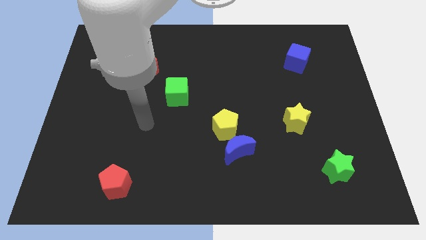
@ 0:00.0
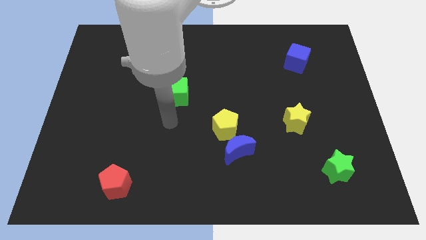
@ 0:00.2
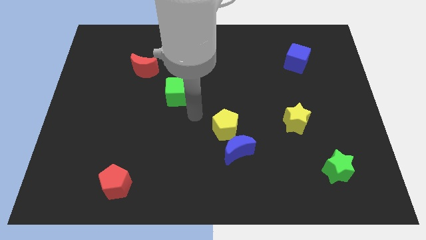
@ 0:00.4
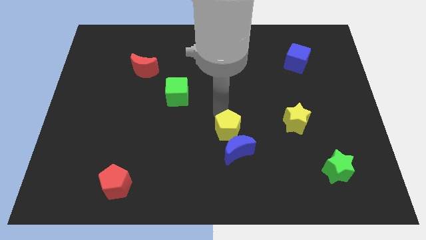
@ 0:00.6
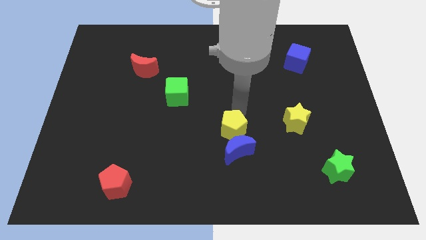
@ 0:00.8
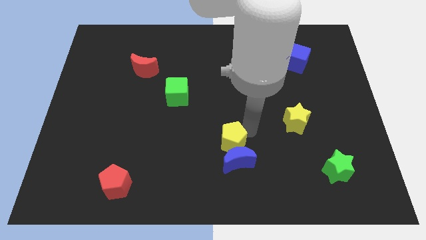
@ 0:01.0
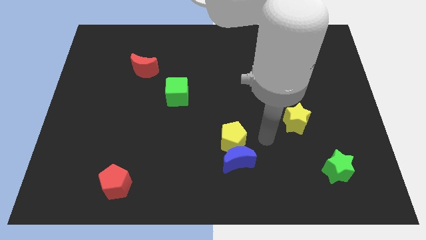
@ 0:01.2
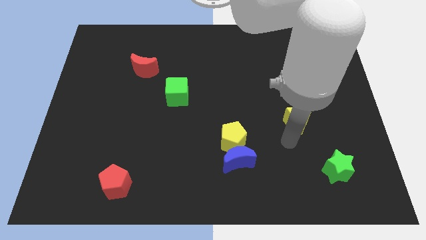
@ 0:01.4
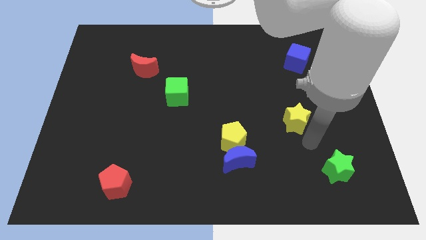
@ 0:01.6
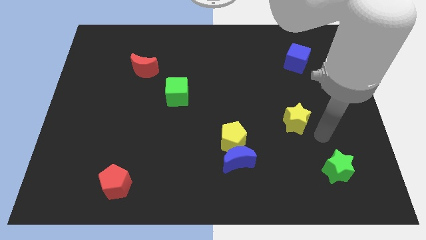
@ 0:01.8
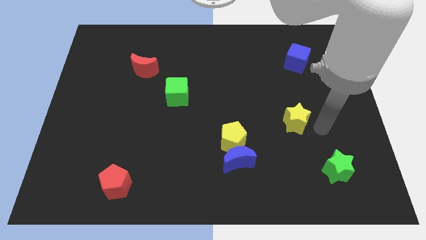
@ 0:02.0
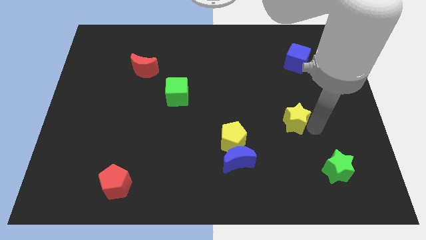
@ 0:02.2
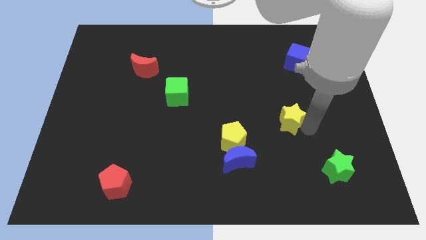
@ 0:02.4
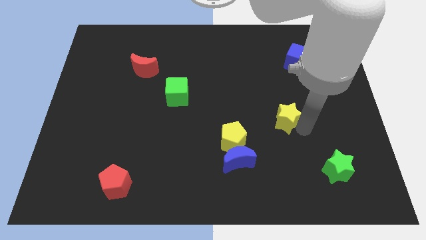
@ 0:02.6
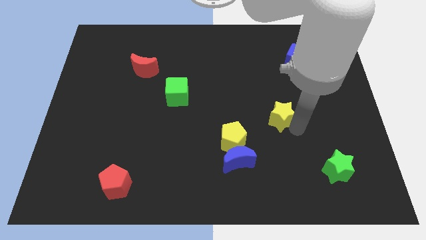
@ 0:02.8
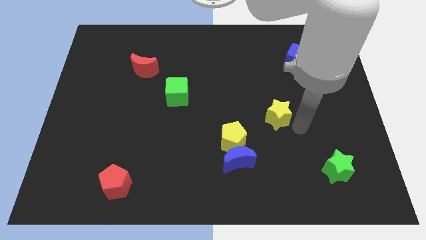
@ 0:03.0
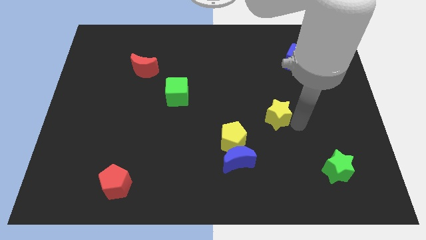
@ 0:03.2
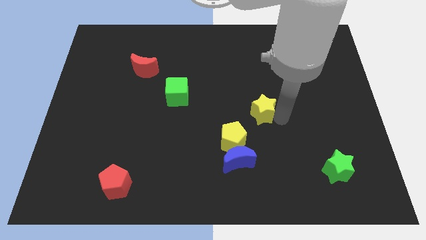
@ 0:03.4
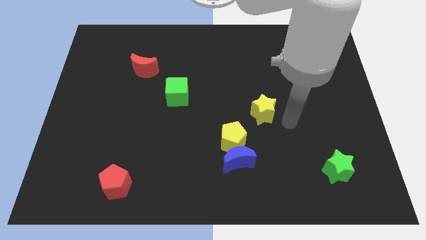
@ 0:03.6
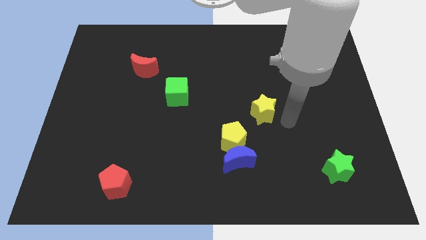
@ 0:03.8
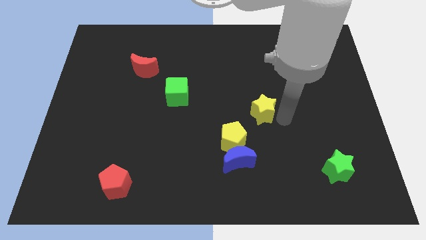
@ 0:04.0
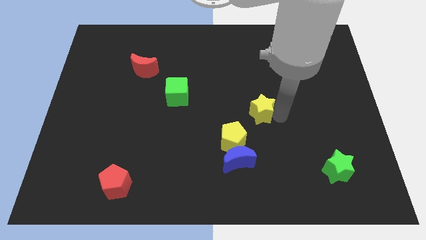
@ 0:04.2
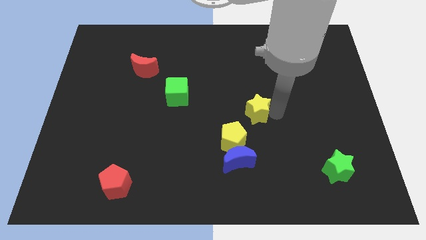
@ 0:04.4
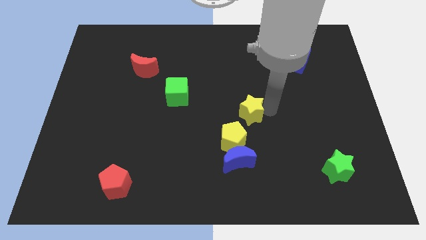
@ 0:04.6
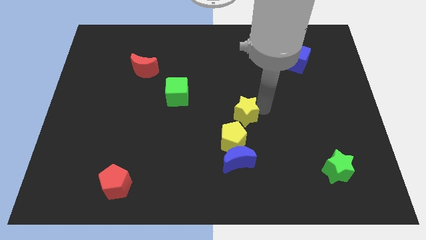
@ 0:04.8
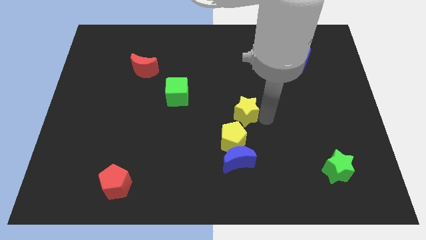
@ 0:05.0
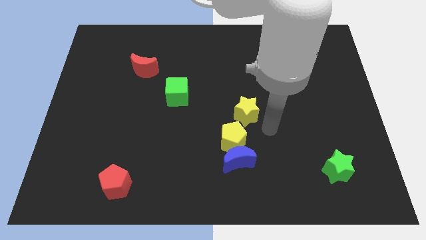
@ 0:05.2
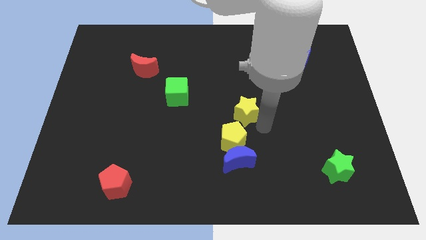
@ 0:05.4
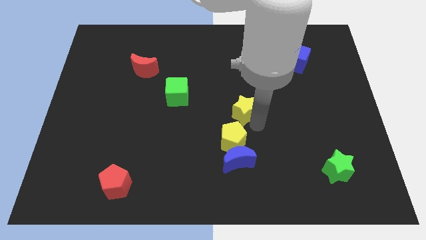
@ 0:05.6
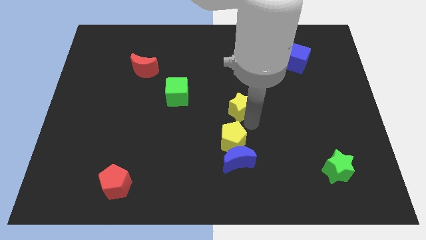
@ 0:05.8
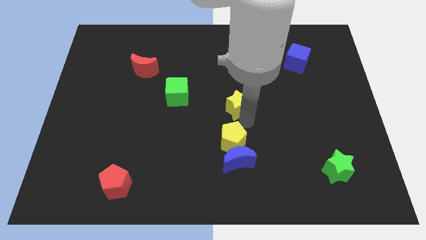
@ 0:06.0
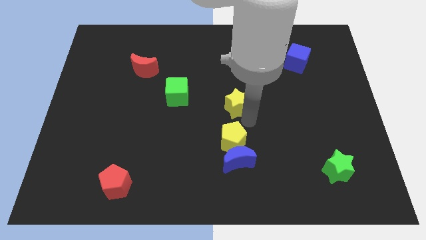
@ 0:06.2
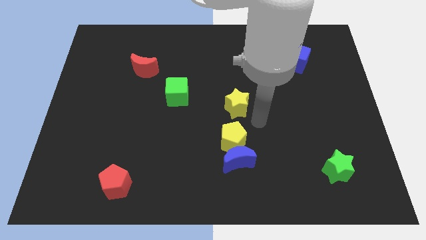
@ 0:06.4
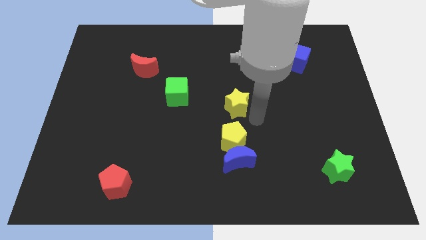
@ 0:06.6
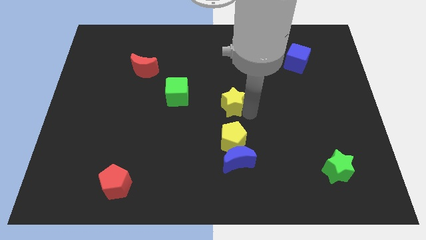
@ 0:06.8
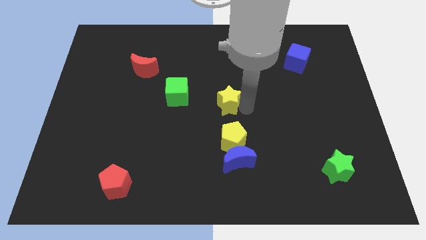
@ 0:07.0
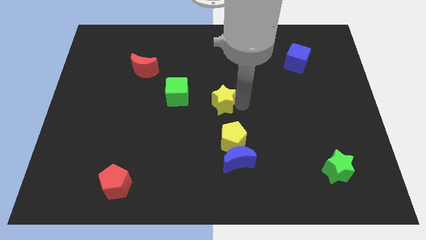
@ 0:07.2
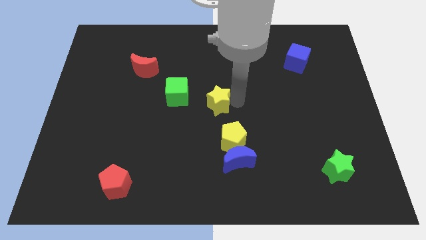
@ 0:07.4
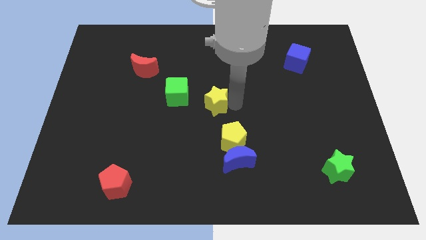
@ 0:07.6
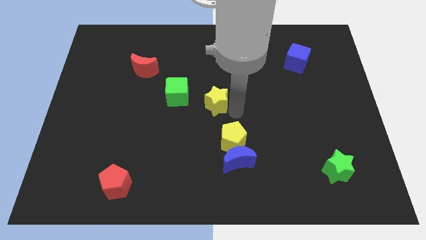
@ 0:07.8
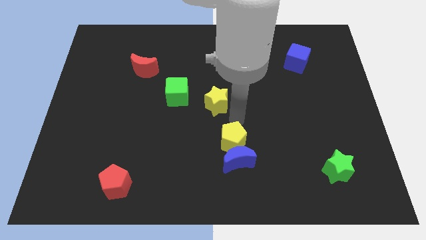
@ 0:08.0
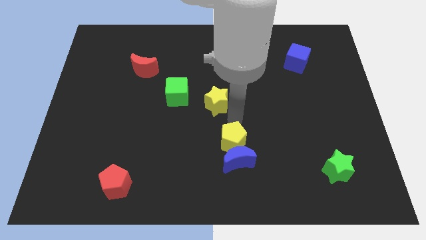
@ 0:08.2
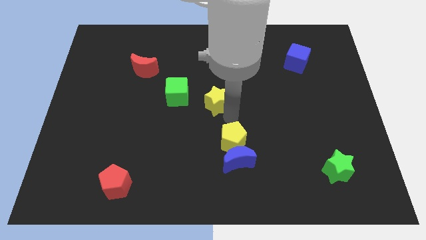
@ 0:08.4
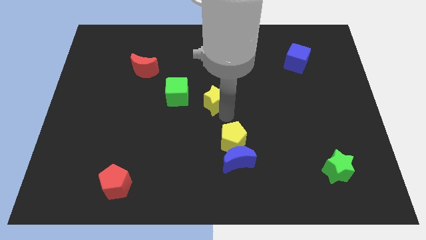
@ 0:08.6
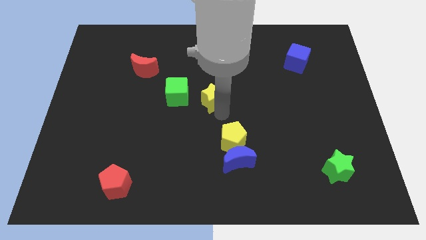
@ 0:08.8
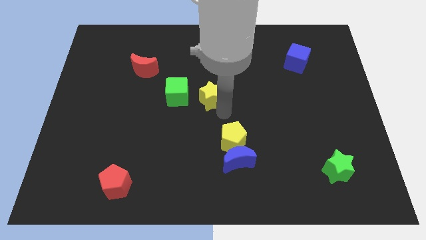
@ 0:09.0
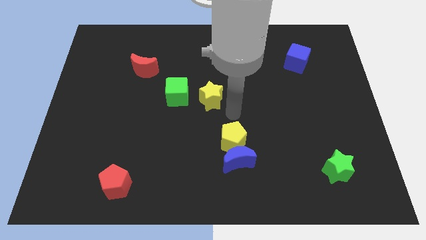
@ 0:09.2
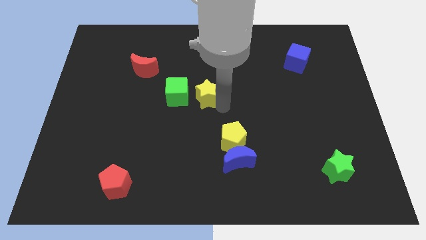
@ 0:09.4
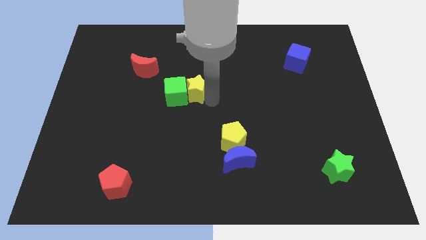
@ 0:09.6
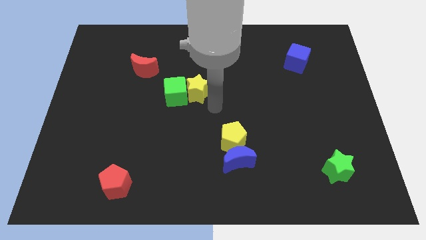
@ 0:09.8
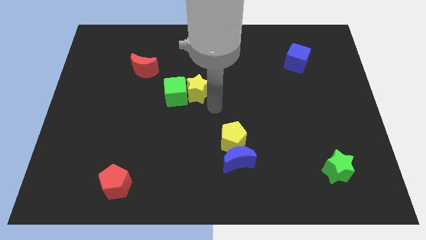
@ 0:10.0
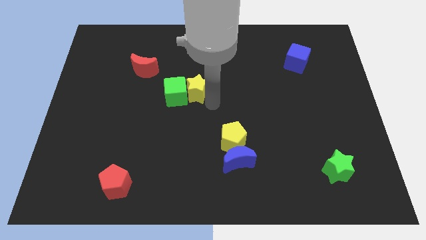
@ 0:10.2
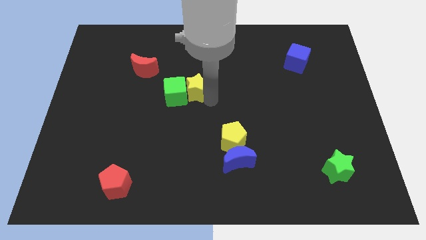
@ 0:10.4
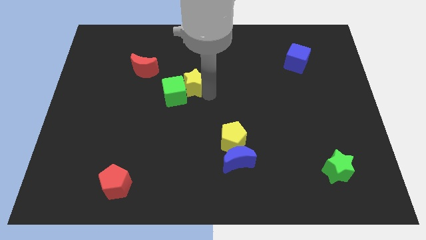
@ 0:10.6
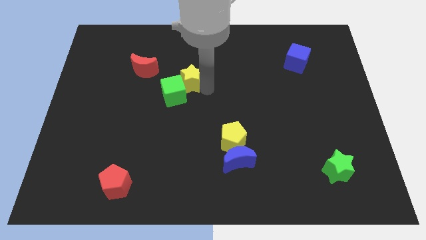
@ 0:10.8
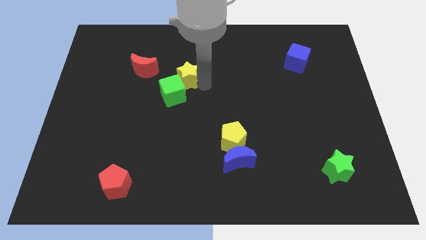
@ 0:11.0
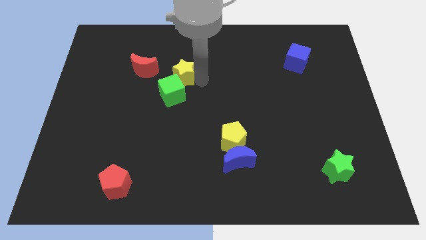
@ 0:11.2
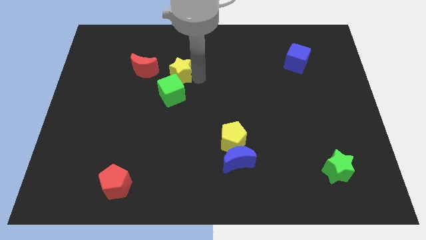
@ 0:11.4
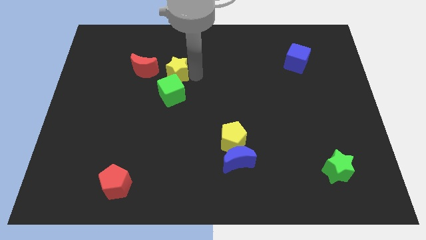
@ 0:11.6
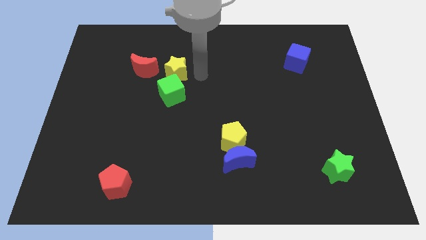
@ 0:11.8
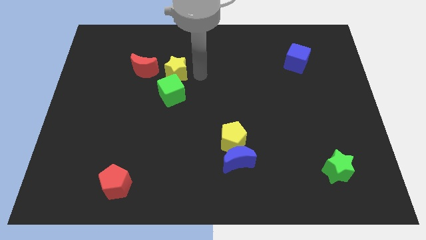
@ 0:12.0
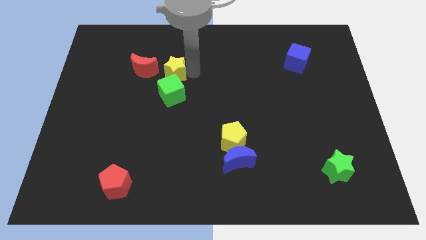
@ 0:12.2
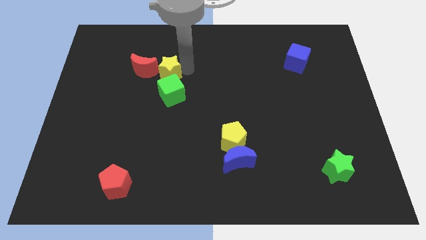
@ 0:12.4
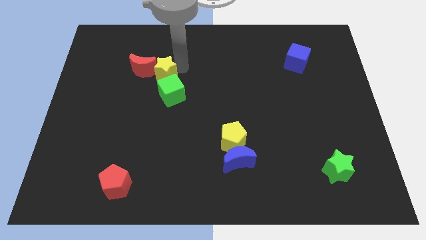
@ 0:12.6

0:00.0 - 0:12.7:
move the yellow star towards the red moon

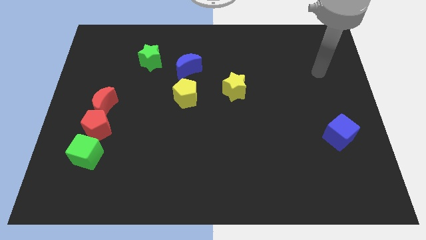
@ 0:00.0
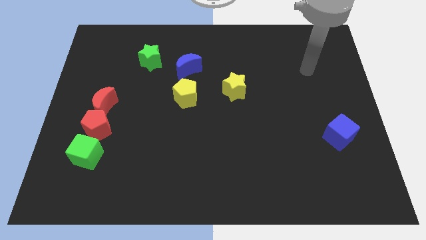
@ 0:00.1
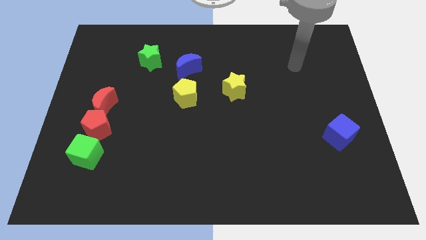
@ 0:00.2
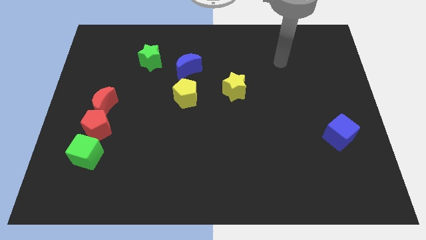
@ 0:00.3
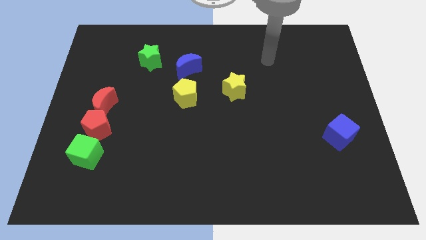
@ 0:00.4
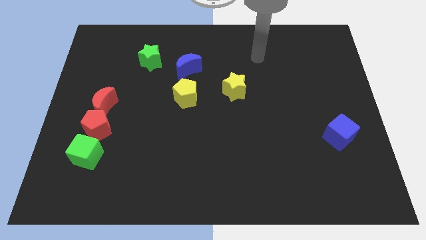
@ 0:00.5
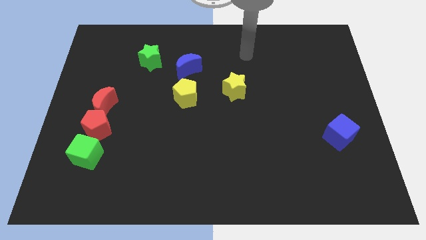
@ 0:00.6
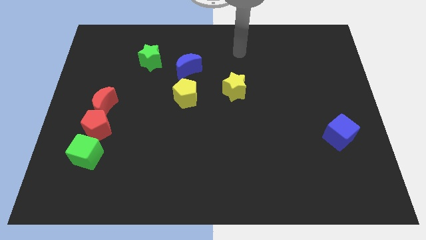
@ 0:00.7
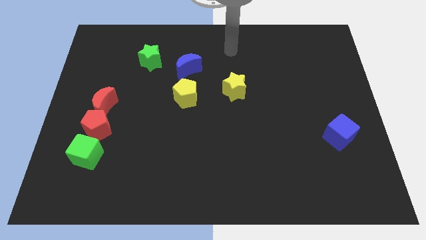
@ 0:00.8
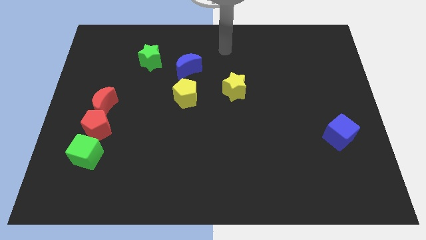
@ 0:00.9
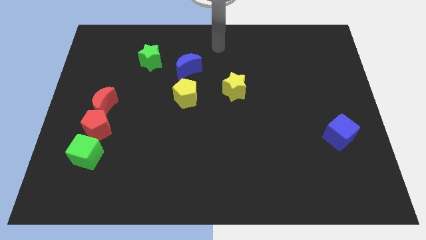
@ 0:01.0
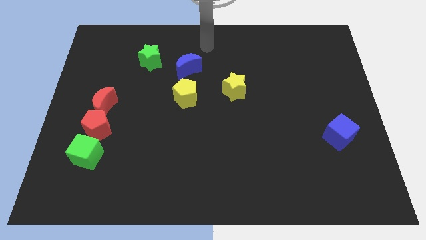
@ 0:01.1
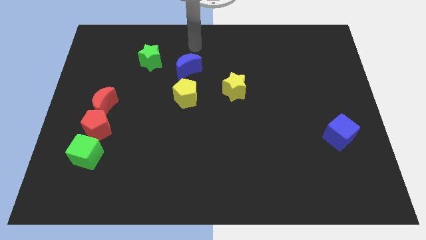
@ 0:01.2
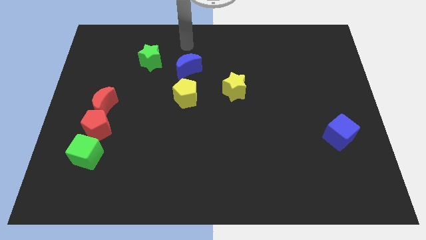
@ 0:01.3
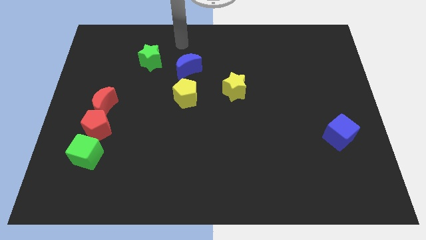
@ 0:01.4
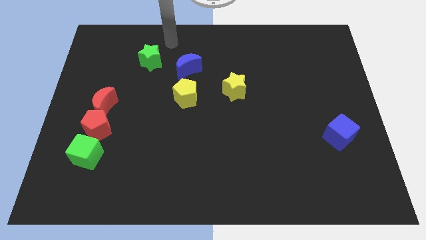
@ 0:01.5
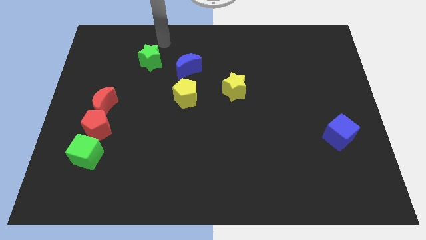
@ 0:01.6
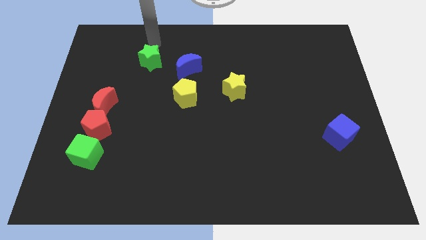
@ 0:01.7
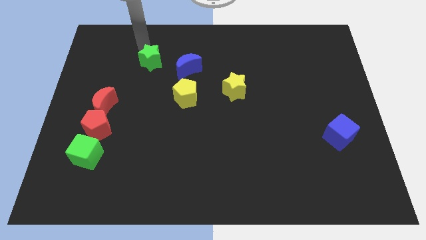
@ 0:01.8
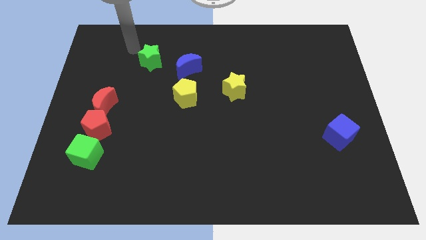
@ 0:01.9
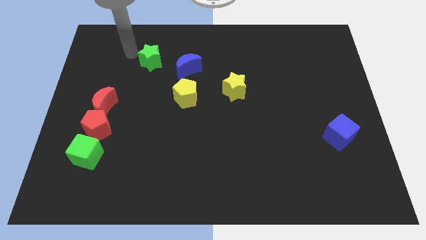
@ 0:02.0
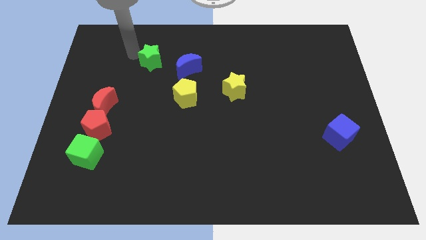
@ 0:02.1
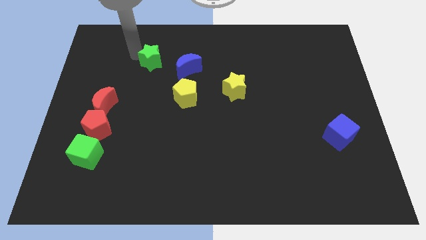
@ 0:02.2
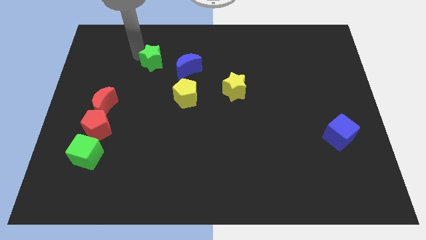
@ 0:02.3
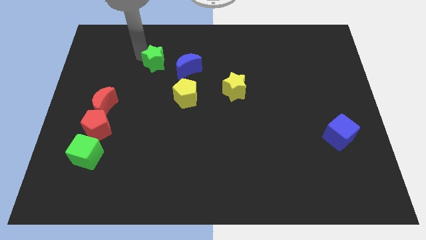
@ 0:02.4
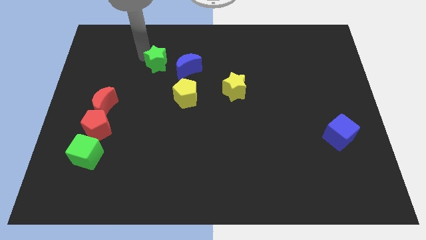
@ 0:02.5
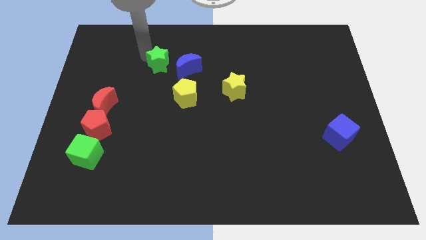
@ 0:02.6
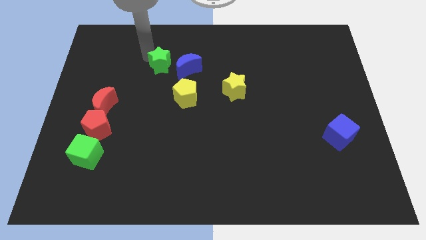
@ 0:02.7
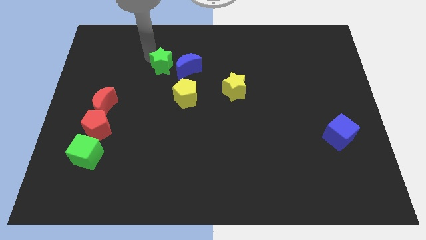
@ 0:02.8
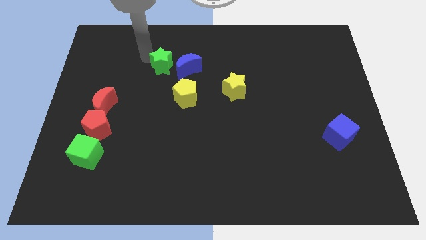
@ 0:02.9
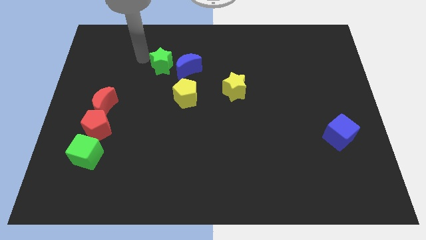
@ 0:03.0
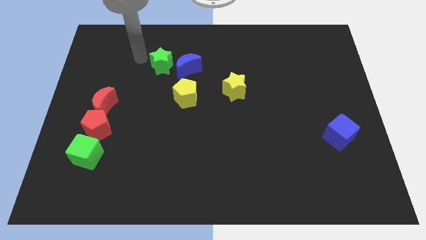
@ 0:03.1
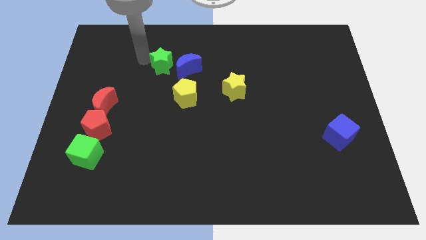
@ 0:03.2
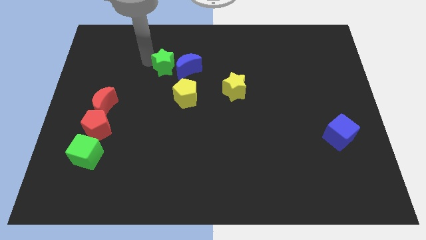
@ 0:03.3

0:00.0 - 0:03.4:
slide the green star to the blue moon
